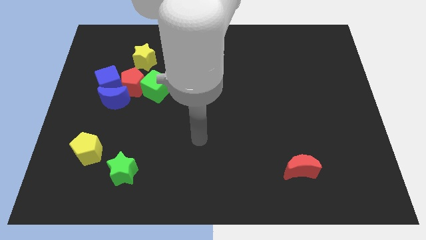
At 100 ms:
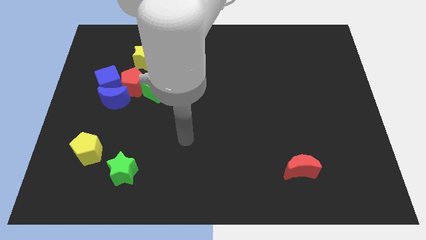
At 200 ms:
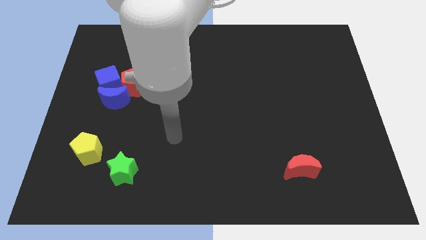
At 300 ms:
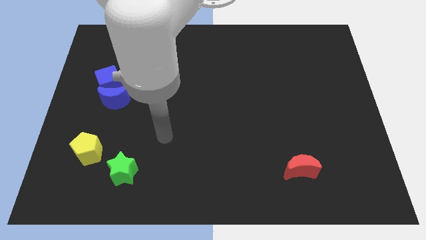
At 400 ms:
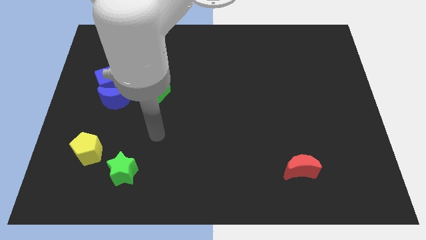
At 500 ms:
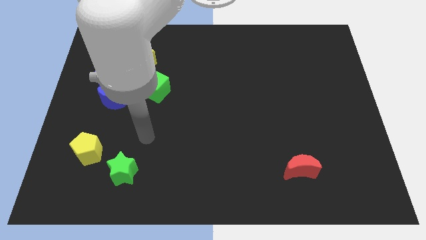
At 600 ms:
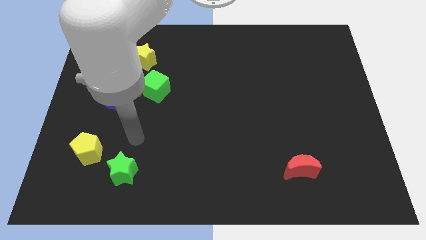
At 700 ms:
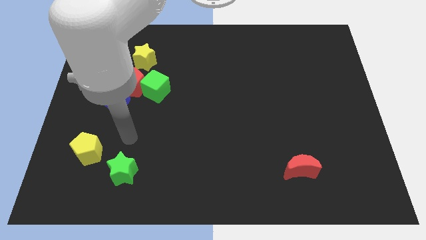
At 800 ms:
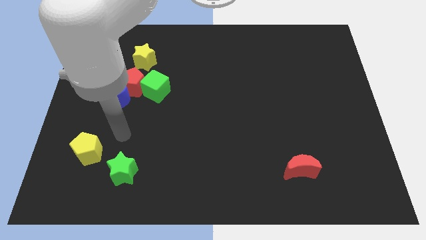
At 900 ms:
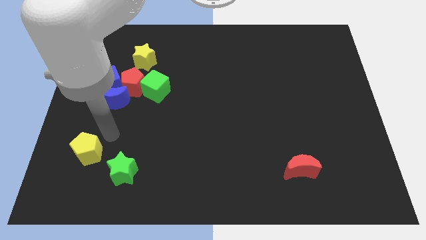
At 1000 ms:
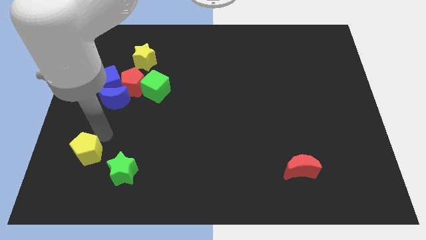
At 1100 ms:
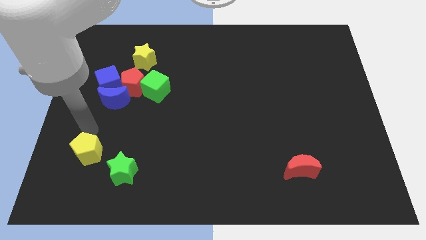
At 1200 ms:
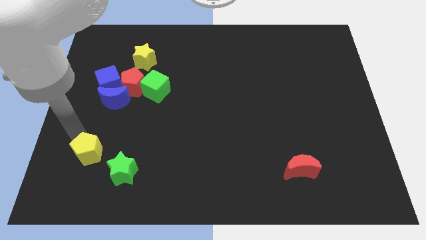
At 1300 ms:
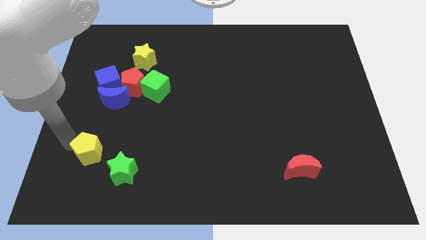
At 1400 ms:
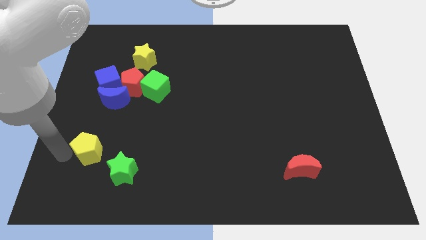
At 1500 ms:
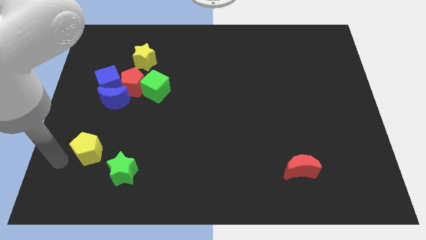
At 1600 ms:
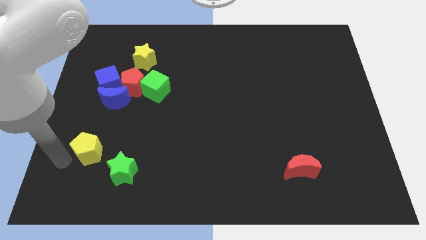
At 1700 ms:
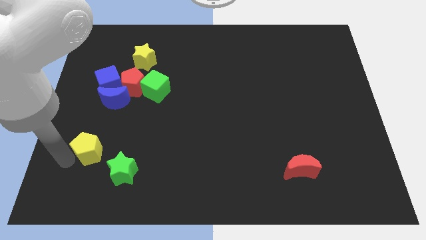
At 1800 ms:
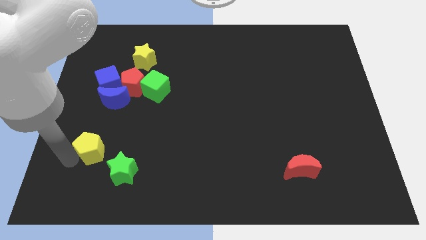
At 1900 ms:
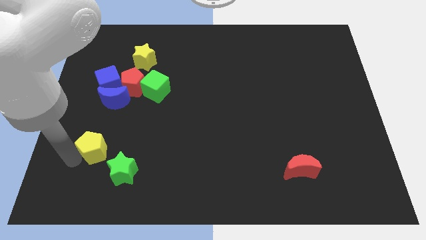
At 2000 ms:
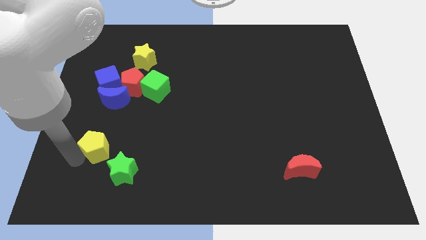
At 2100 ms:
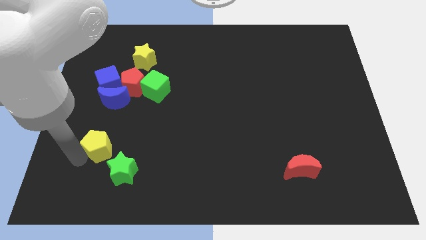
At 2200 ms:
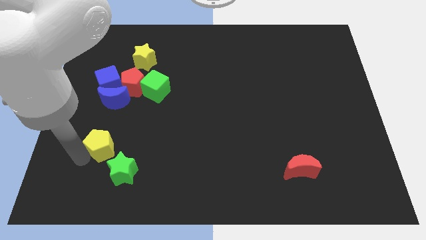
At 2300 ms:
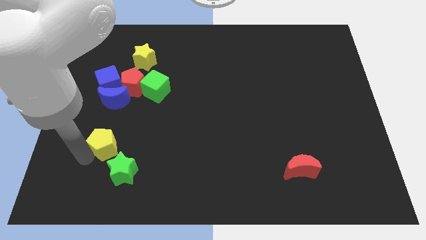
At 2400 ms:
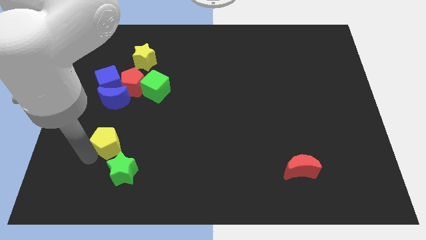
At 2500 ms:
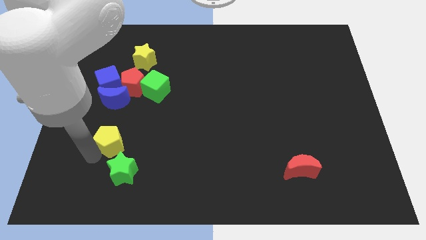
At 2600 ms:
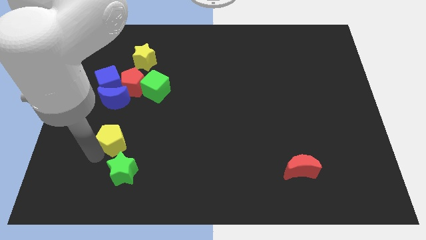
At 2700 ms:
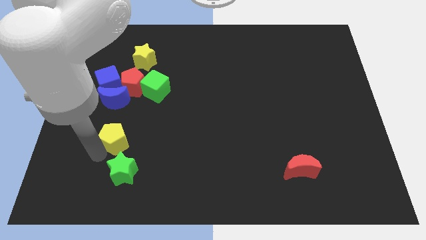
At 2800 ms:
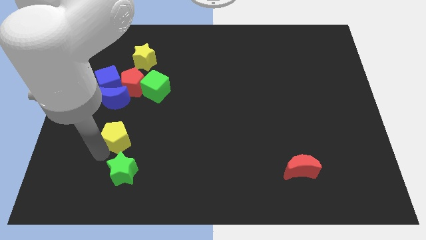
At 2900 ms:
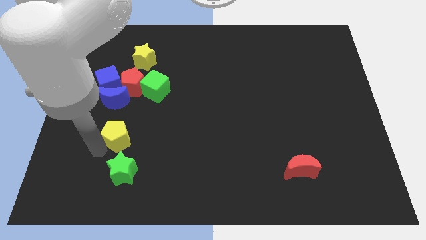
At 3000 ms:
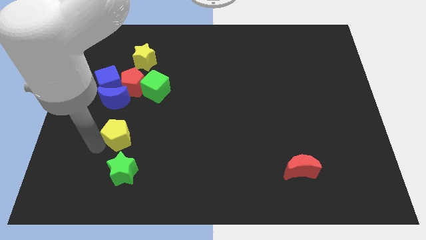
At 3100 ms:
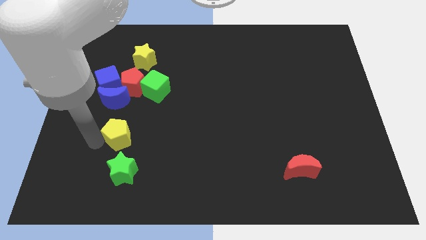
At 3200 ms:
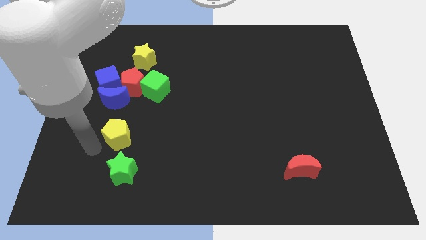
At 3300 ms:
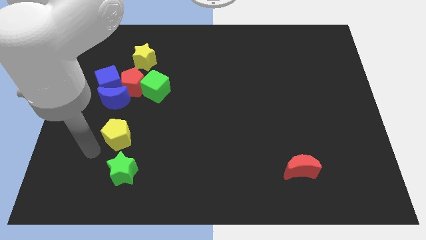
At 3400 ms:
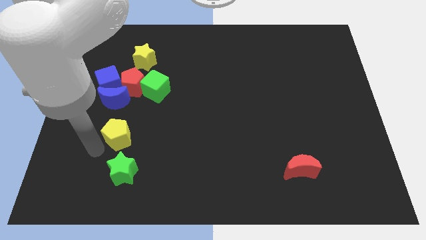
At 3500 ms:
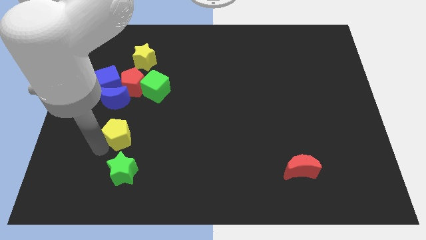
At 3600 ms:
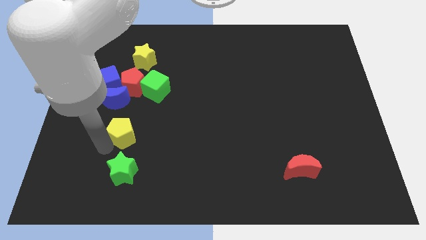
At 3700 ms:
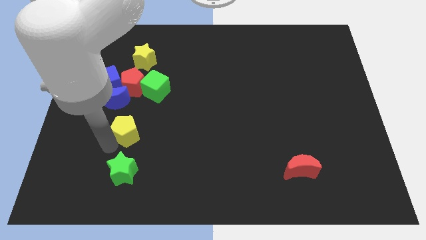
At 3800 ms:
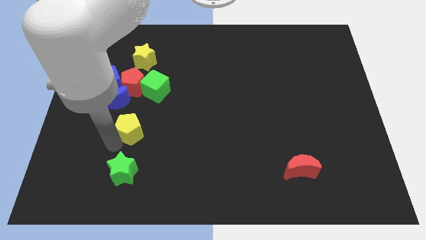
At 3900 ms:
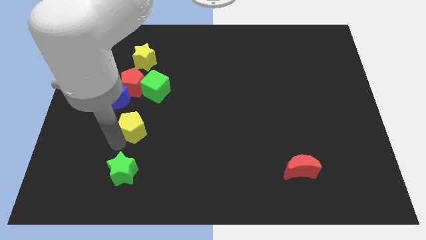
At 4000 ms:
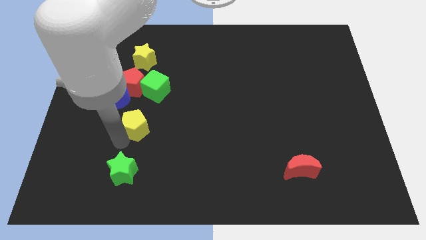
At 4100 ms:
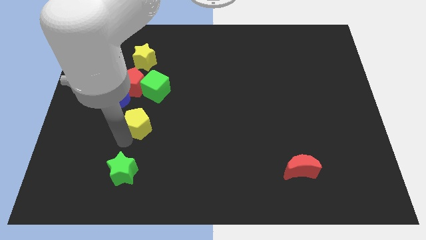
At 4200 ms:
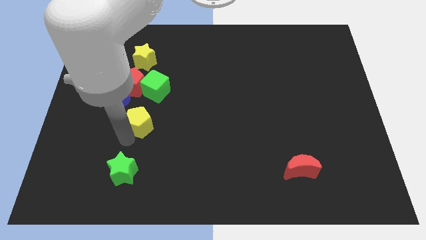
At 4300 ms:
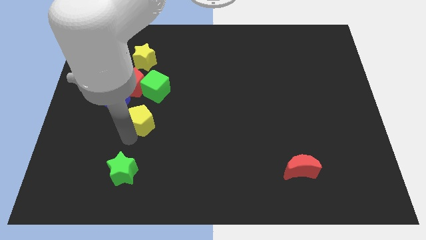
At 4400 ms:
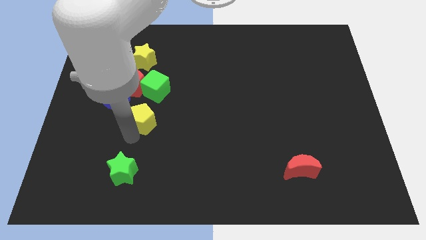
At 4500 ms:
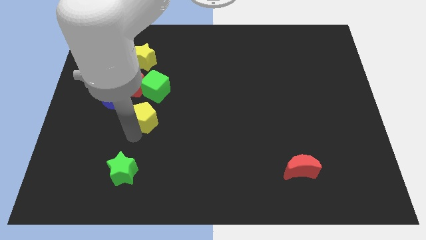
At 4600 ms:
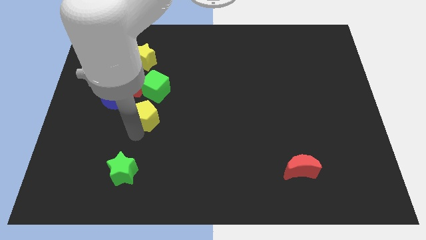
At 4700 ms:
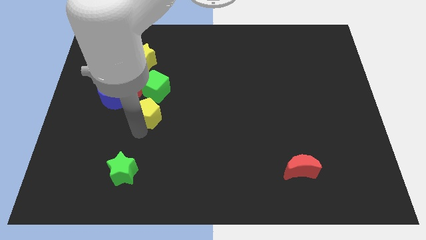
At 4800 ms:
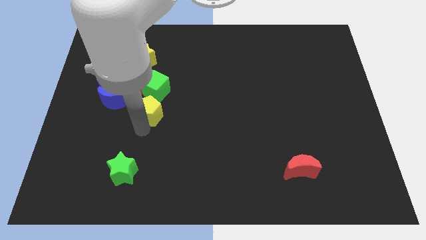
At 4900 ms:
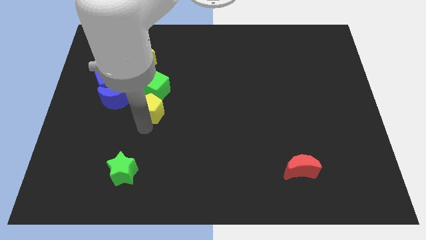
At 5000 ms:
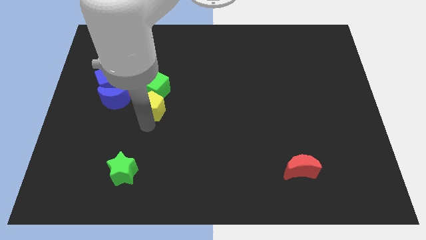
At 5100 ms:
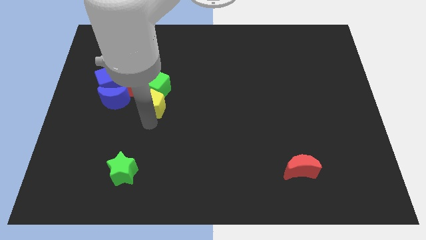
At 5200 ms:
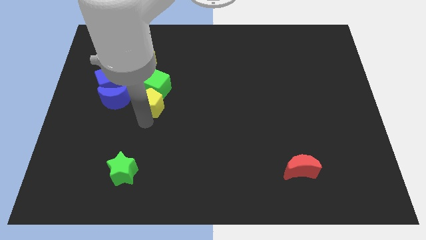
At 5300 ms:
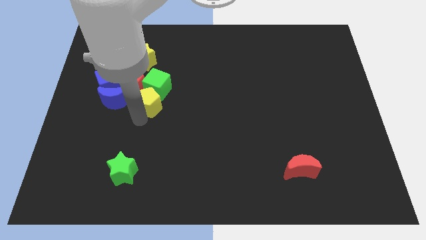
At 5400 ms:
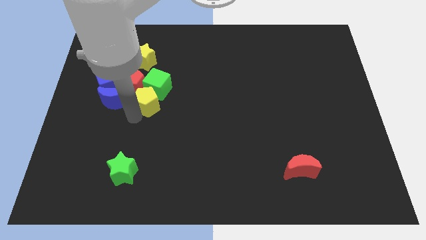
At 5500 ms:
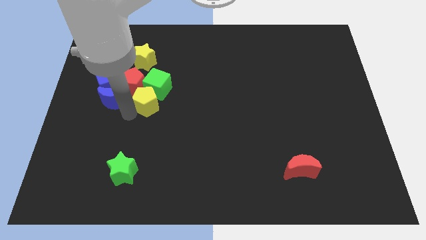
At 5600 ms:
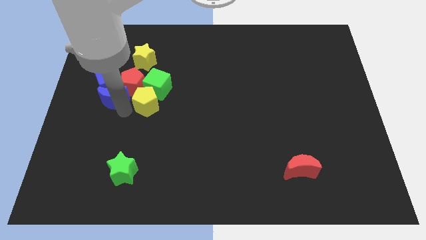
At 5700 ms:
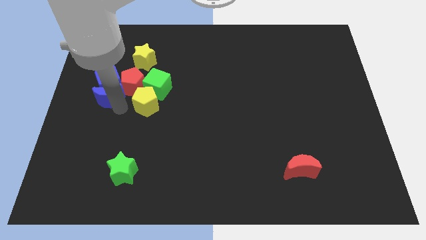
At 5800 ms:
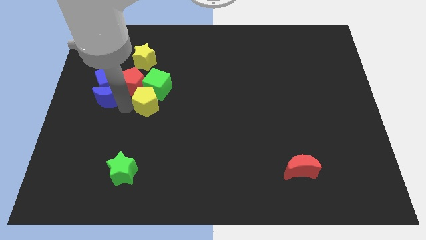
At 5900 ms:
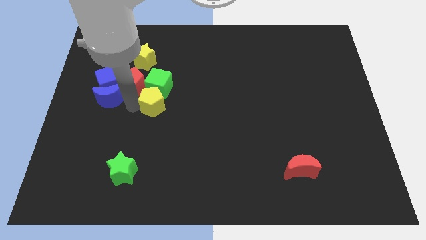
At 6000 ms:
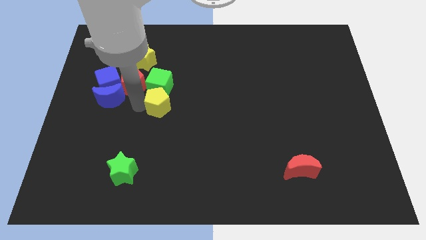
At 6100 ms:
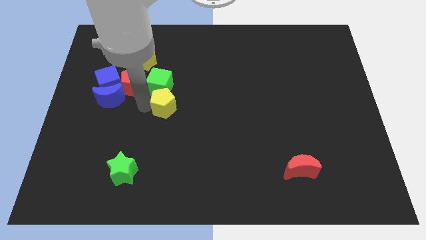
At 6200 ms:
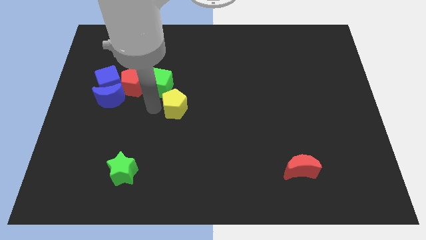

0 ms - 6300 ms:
push the yellow pentagon up and right diagonally

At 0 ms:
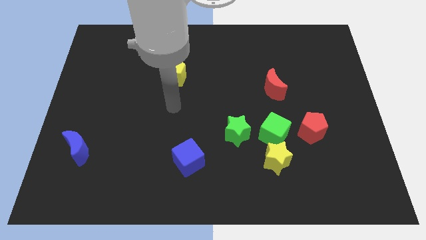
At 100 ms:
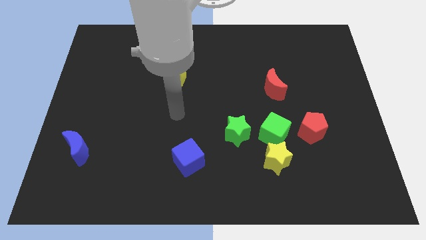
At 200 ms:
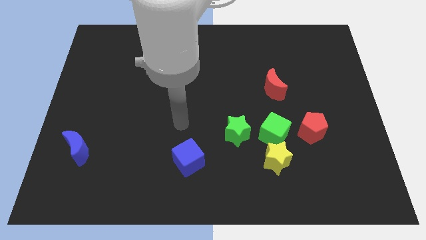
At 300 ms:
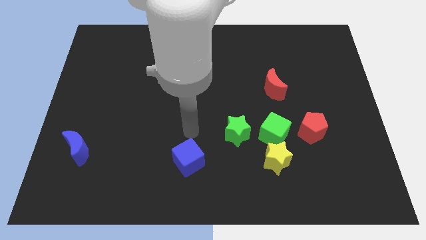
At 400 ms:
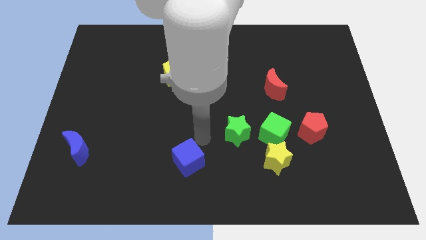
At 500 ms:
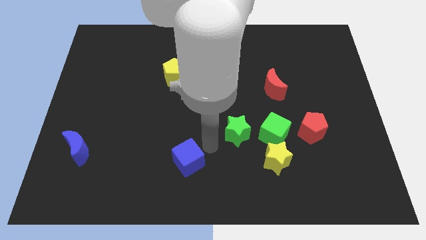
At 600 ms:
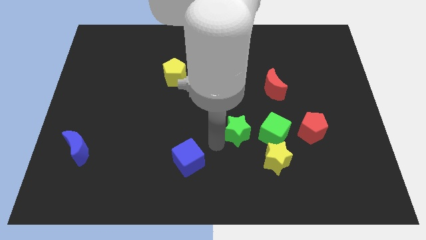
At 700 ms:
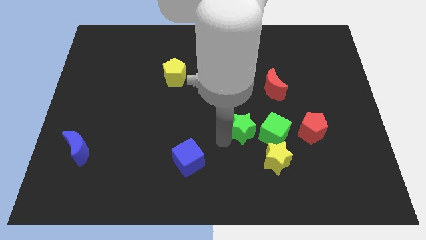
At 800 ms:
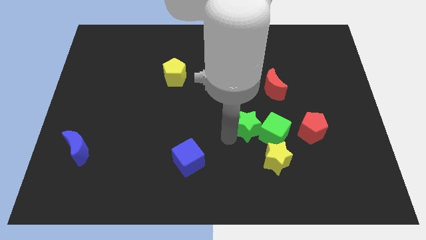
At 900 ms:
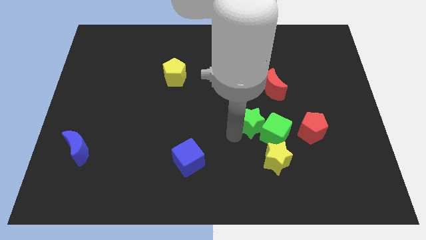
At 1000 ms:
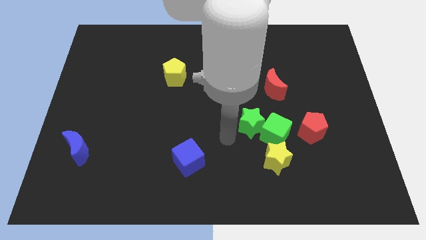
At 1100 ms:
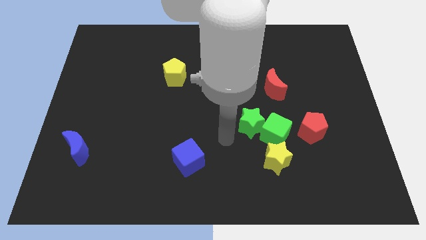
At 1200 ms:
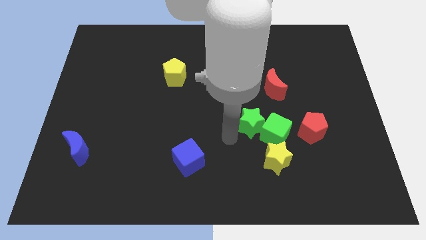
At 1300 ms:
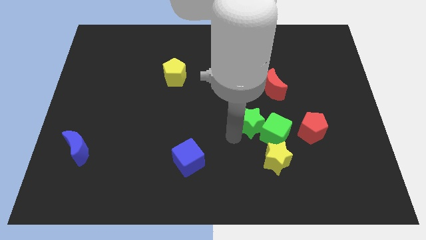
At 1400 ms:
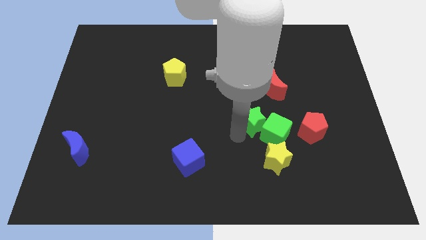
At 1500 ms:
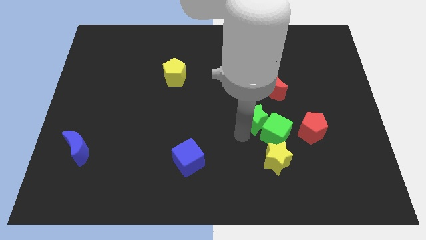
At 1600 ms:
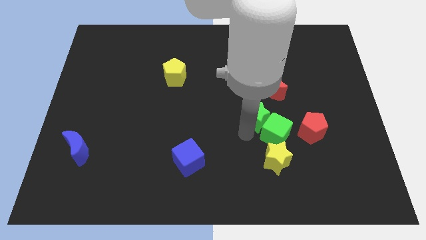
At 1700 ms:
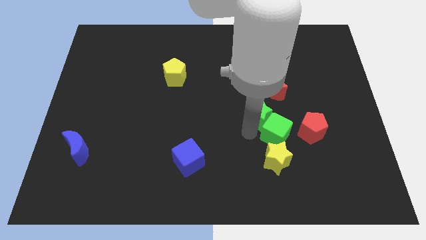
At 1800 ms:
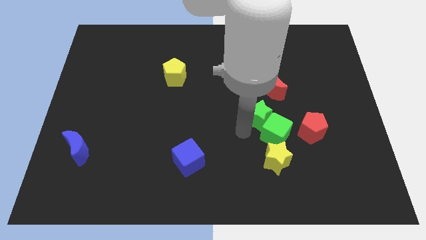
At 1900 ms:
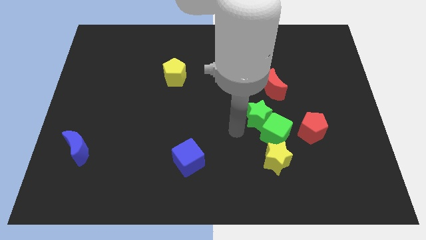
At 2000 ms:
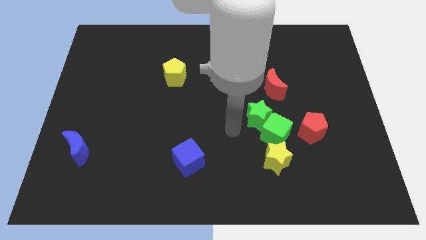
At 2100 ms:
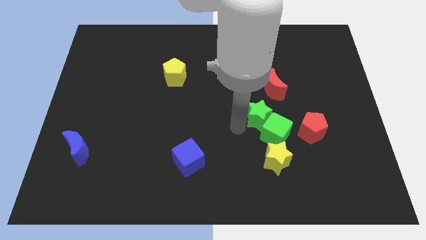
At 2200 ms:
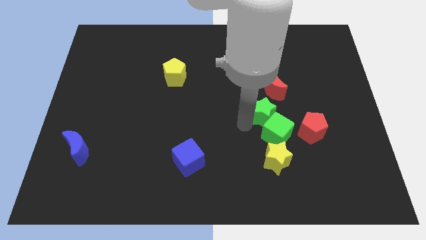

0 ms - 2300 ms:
slightly slide the green star upwards and to the right
